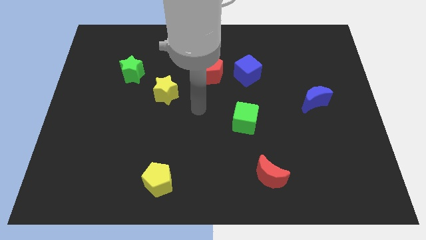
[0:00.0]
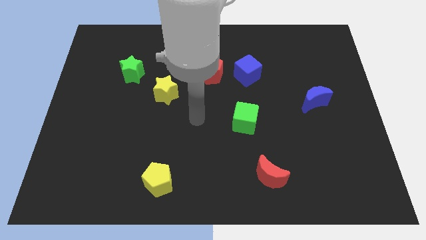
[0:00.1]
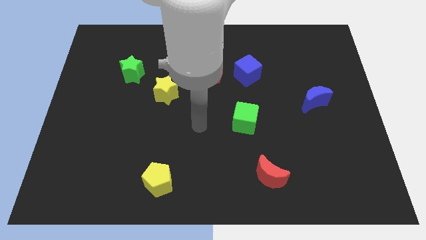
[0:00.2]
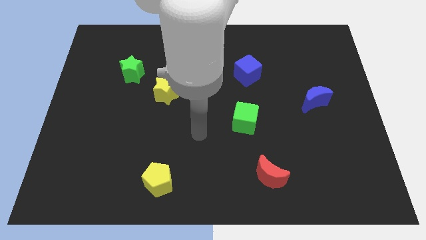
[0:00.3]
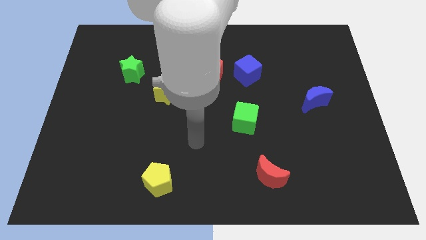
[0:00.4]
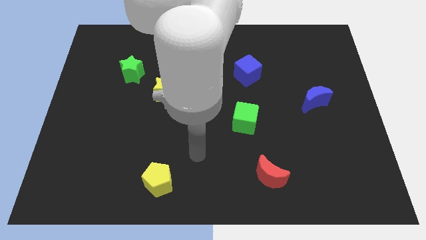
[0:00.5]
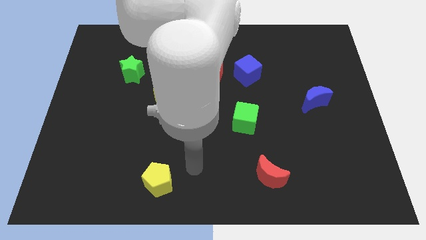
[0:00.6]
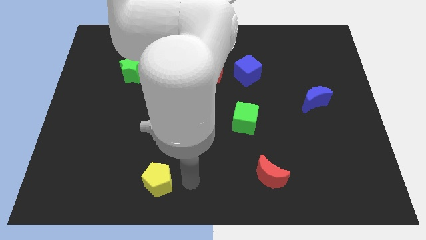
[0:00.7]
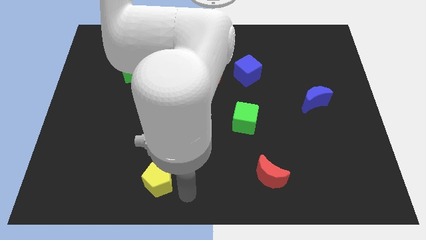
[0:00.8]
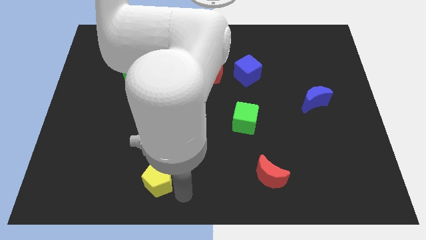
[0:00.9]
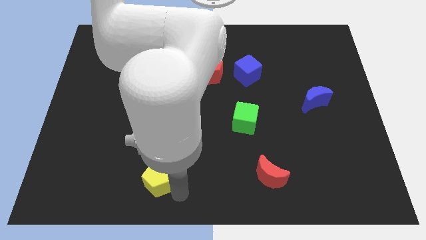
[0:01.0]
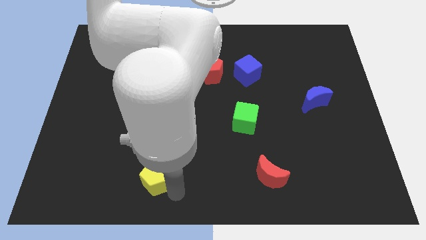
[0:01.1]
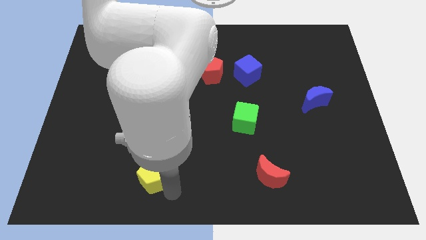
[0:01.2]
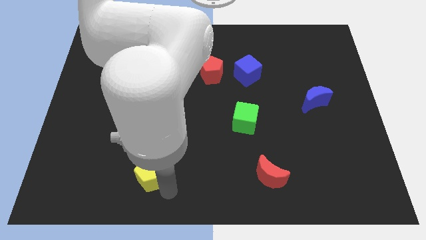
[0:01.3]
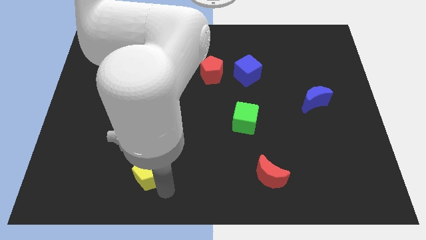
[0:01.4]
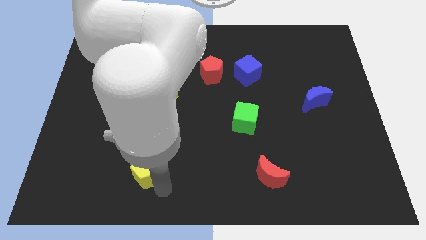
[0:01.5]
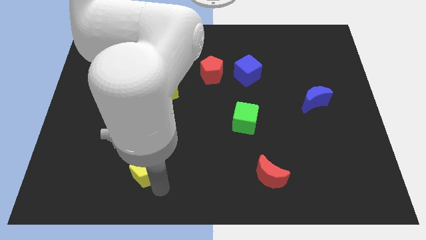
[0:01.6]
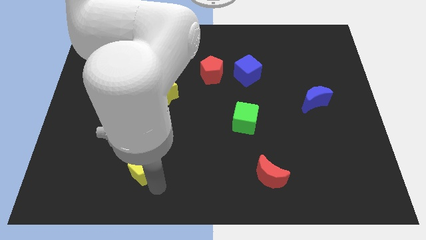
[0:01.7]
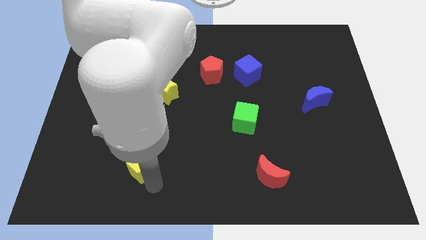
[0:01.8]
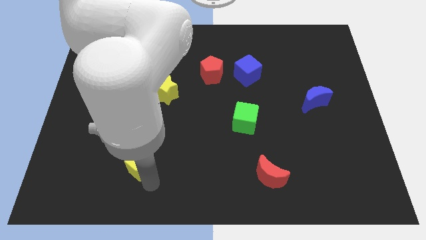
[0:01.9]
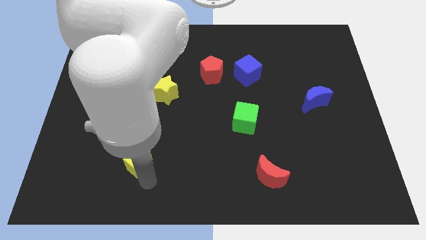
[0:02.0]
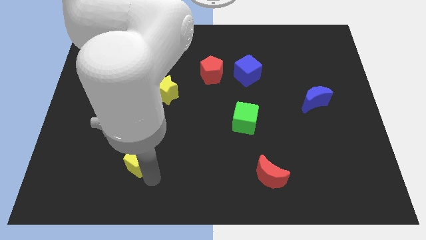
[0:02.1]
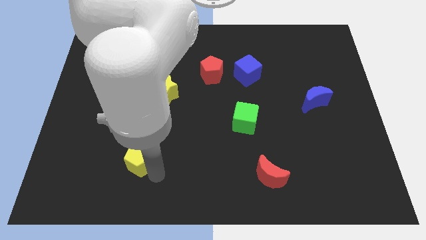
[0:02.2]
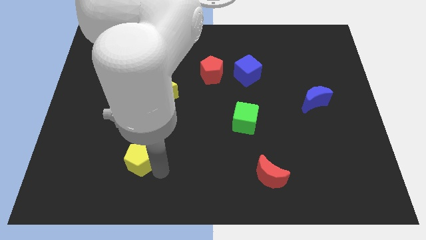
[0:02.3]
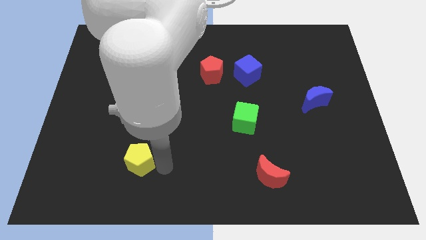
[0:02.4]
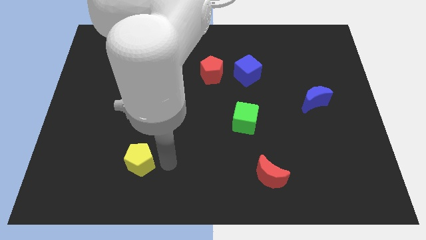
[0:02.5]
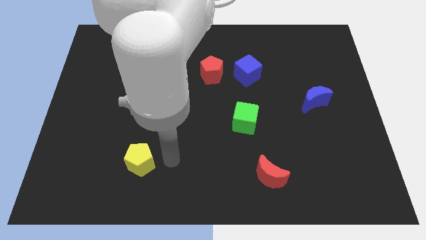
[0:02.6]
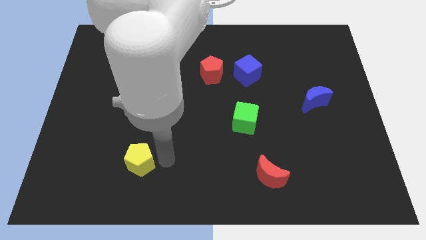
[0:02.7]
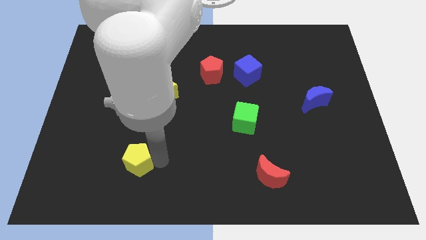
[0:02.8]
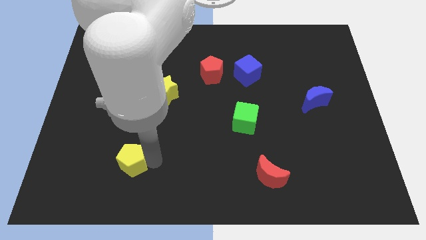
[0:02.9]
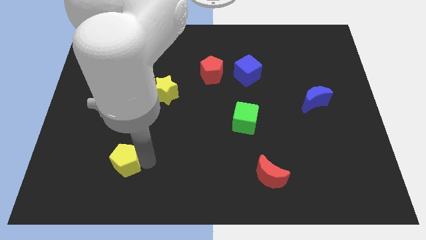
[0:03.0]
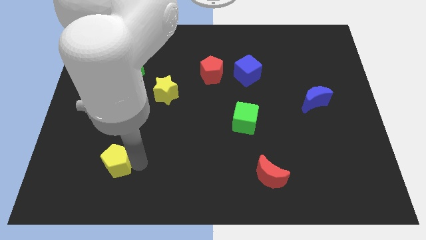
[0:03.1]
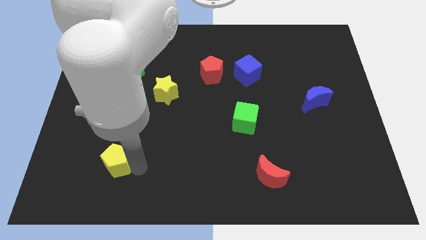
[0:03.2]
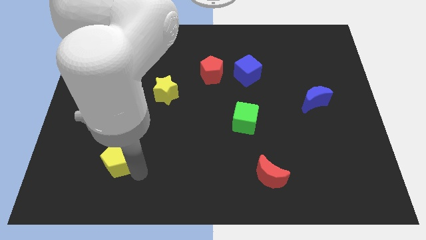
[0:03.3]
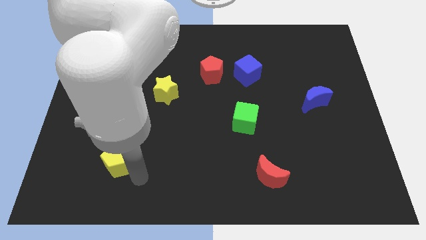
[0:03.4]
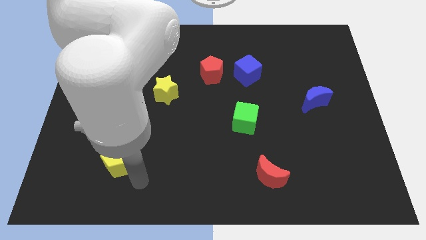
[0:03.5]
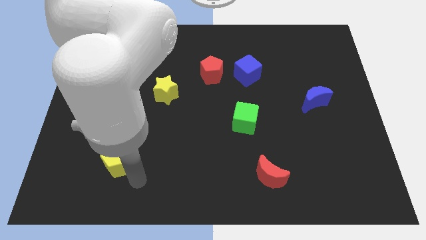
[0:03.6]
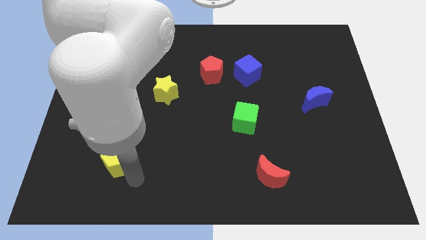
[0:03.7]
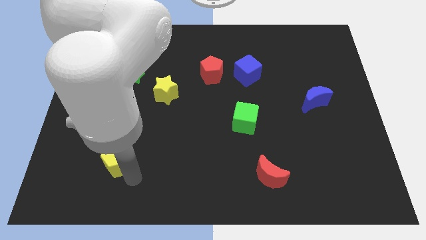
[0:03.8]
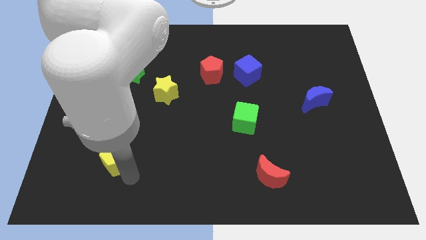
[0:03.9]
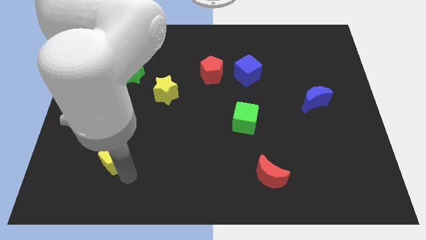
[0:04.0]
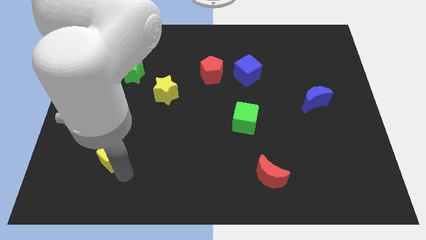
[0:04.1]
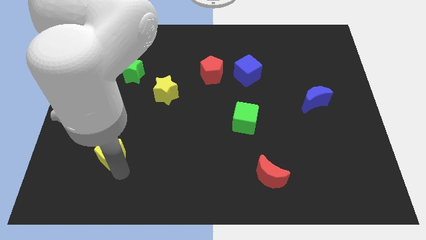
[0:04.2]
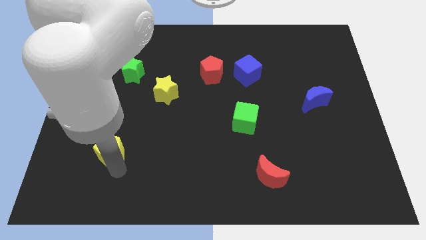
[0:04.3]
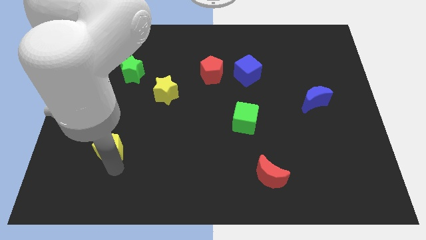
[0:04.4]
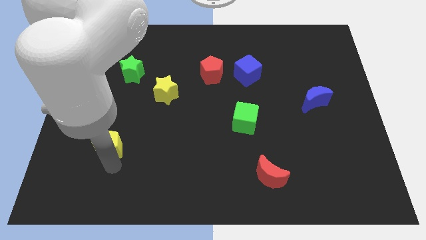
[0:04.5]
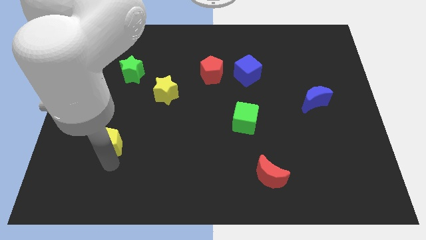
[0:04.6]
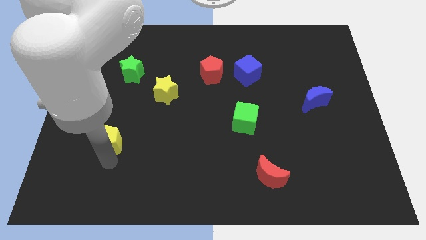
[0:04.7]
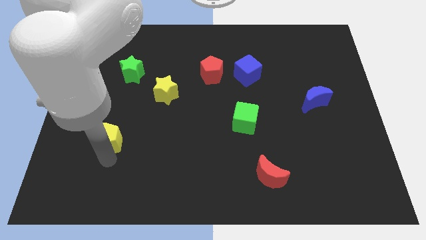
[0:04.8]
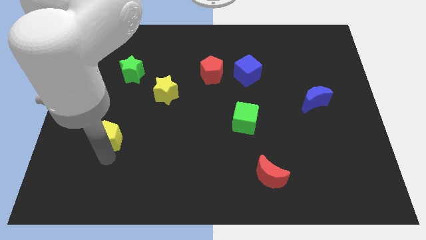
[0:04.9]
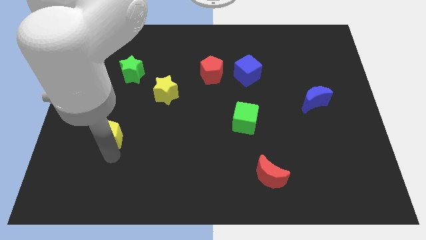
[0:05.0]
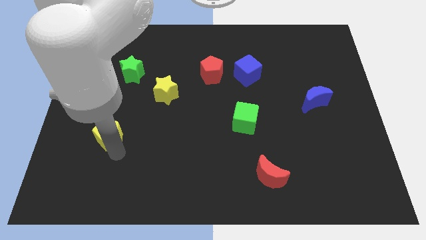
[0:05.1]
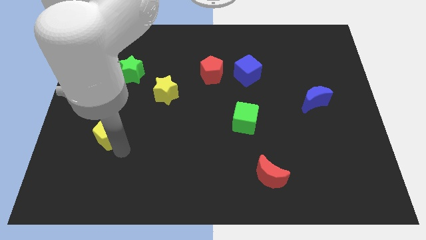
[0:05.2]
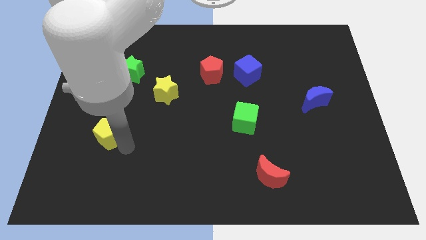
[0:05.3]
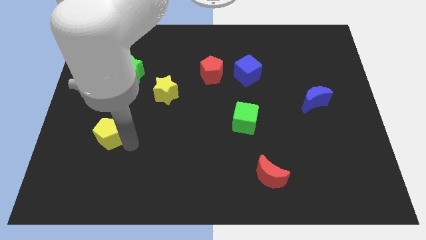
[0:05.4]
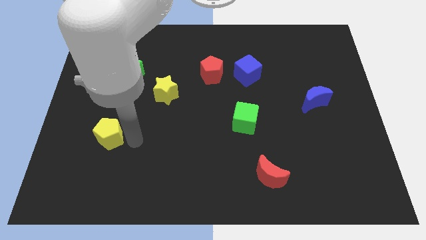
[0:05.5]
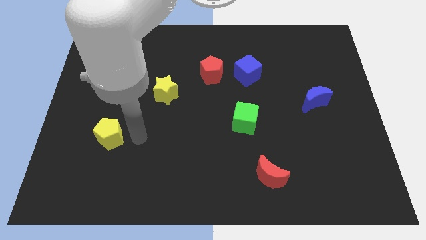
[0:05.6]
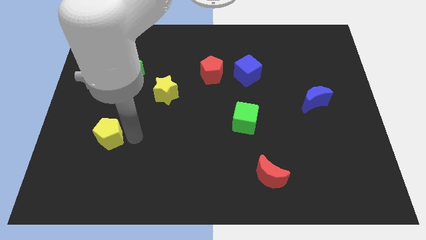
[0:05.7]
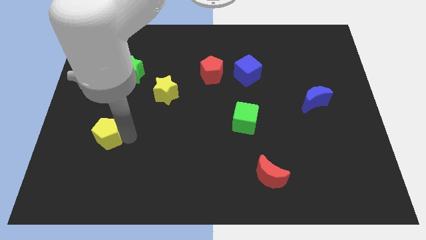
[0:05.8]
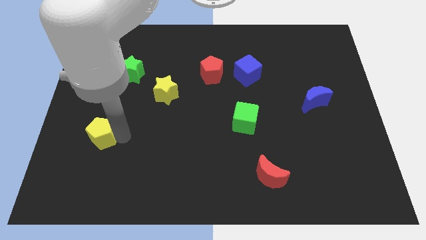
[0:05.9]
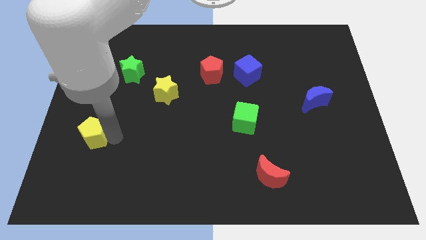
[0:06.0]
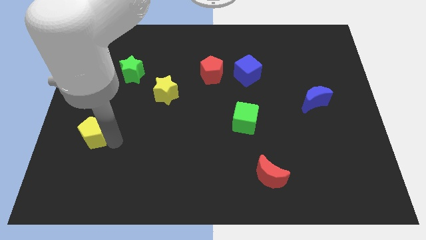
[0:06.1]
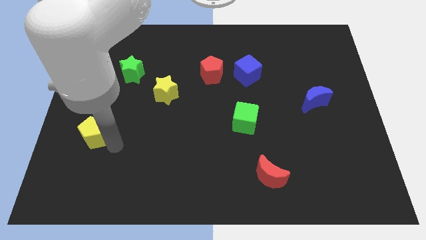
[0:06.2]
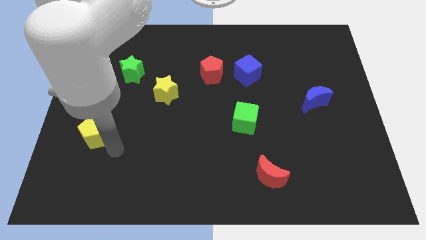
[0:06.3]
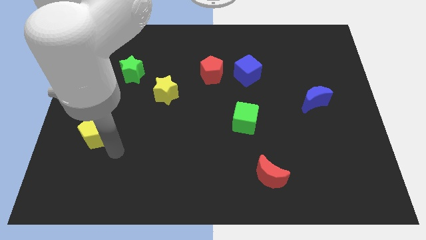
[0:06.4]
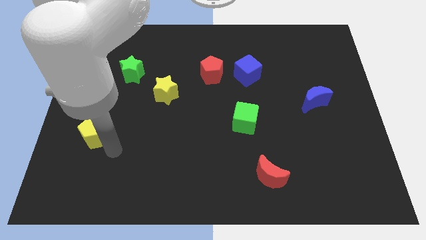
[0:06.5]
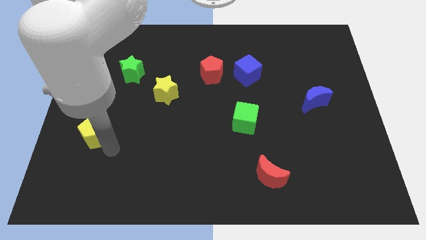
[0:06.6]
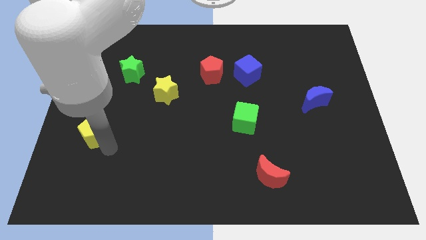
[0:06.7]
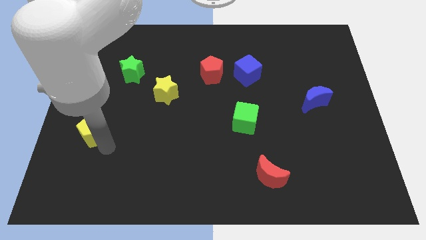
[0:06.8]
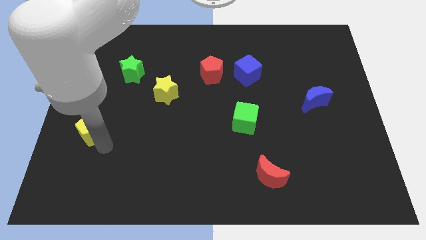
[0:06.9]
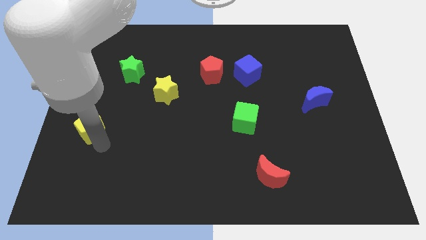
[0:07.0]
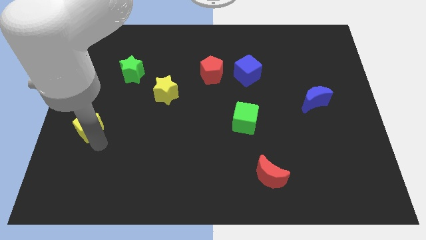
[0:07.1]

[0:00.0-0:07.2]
push the yellow pentagon to the center left

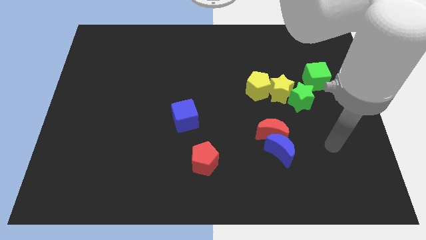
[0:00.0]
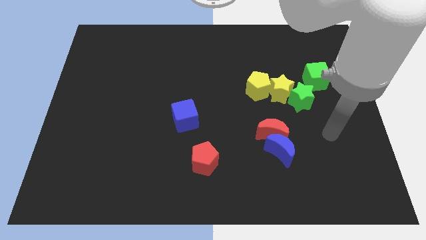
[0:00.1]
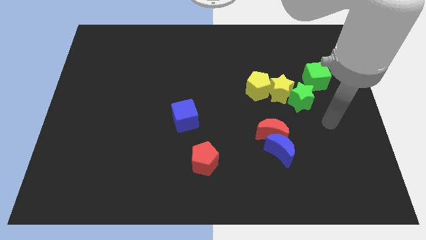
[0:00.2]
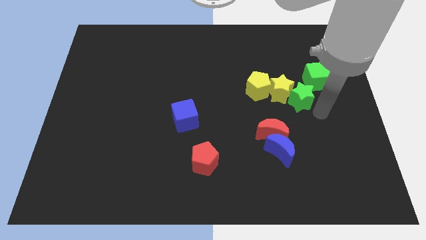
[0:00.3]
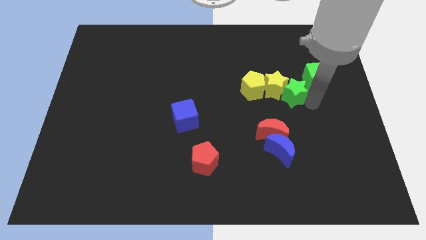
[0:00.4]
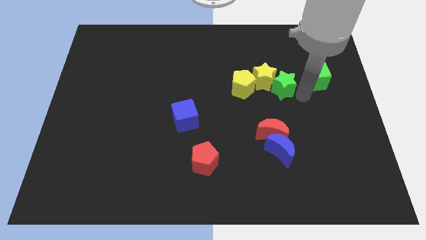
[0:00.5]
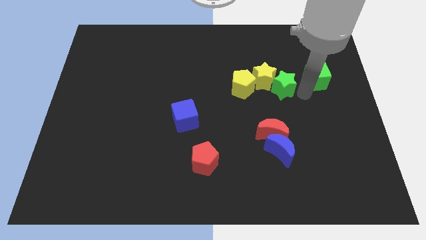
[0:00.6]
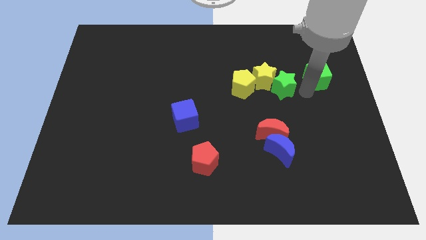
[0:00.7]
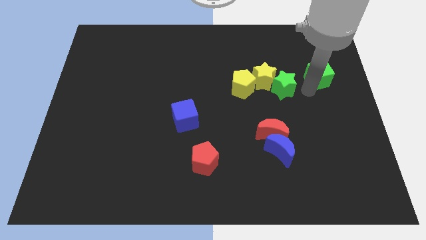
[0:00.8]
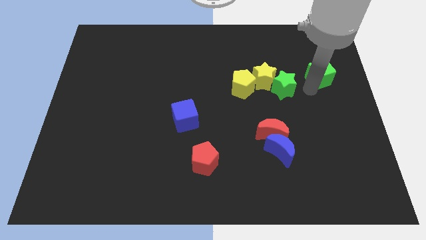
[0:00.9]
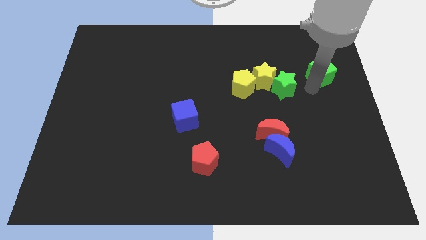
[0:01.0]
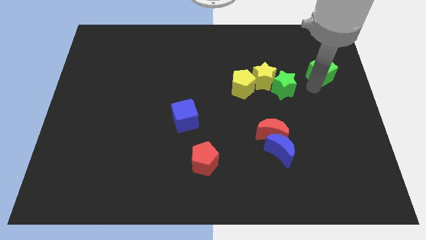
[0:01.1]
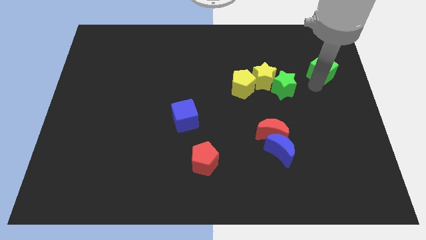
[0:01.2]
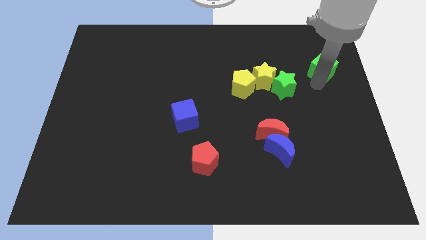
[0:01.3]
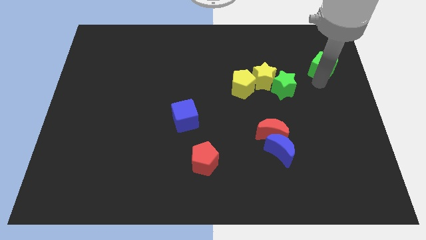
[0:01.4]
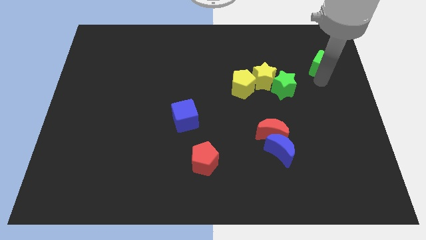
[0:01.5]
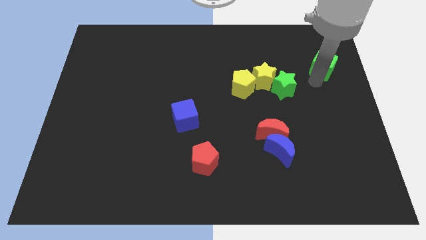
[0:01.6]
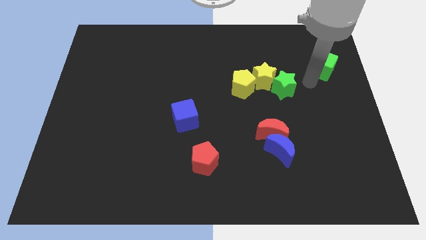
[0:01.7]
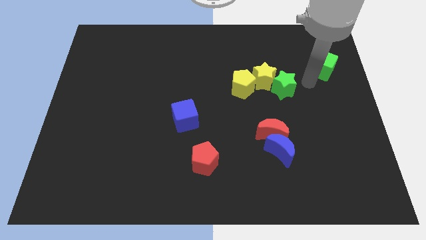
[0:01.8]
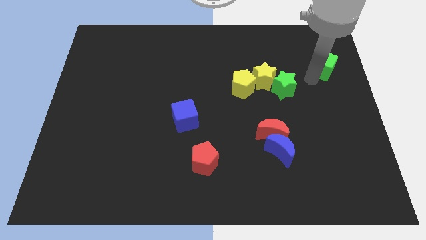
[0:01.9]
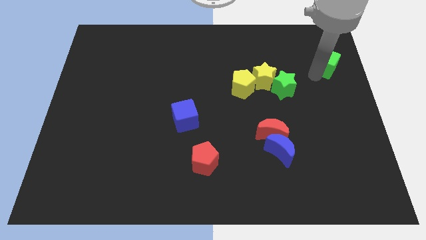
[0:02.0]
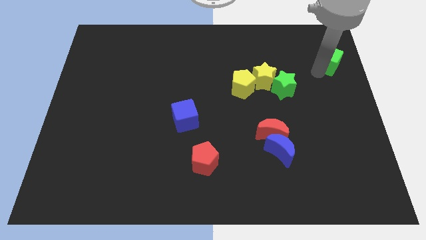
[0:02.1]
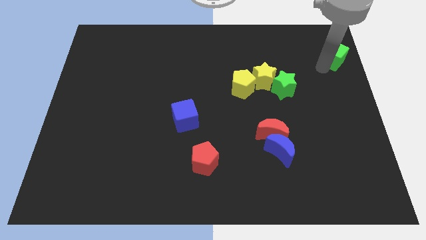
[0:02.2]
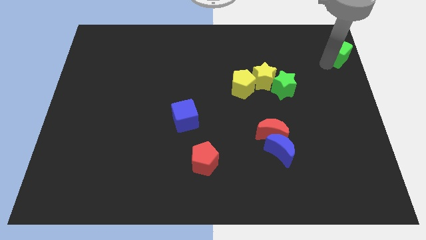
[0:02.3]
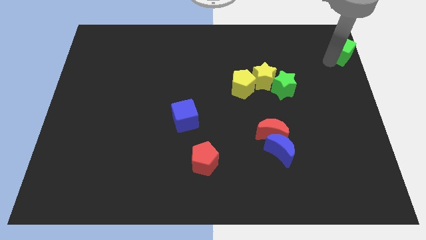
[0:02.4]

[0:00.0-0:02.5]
put the green cube to the top right of the board
